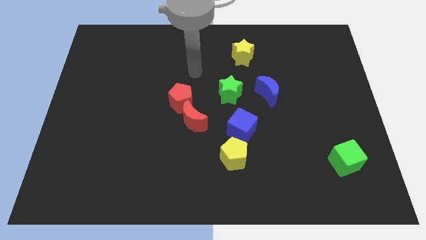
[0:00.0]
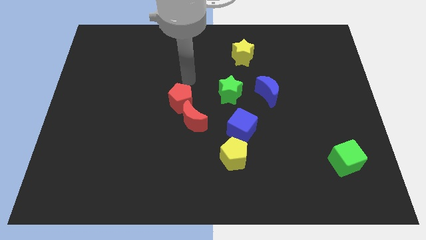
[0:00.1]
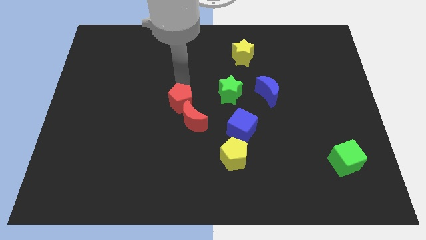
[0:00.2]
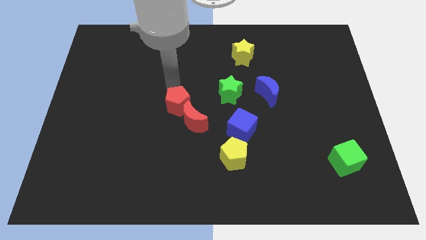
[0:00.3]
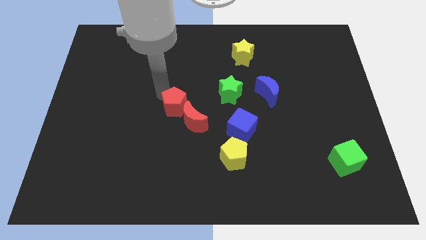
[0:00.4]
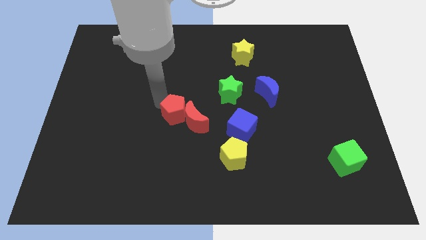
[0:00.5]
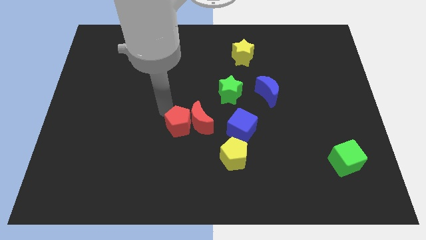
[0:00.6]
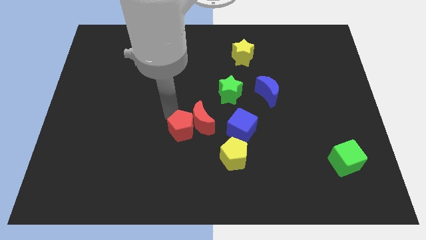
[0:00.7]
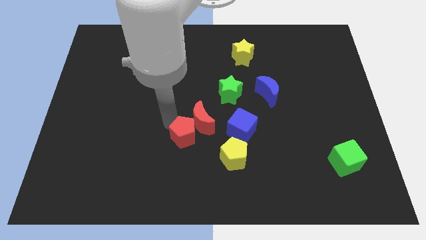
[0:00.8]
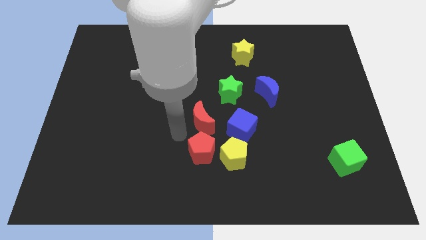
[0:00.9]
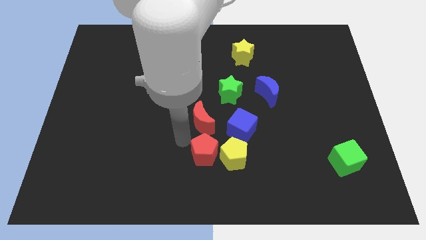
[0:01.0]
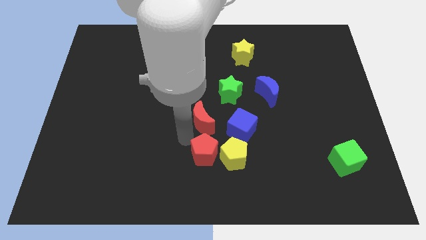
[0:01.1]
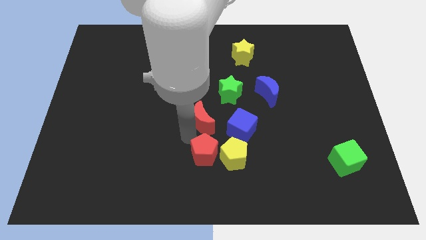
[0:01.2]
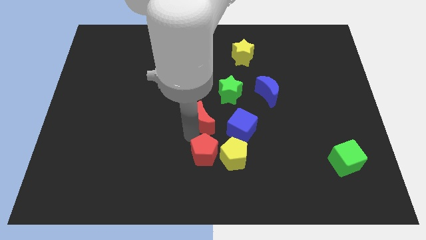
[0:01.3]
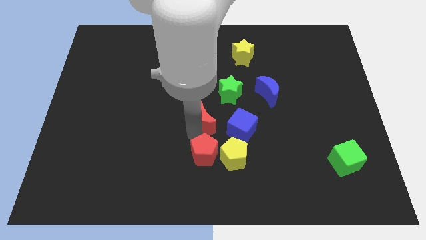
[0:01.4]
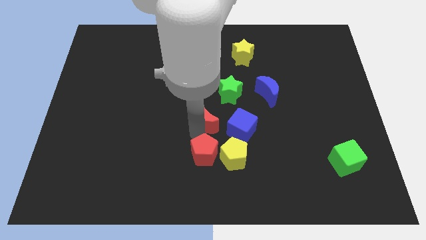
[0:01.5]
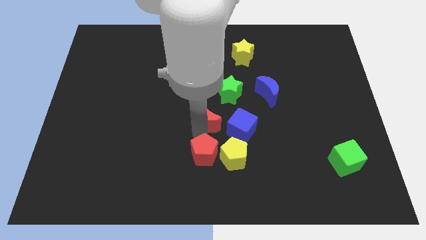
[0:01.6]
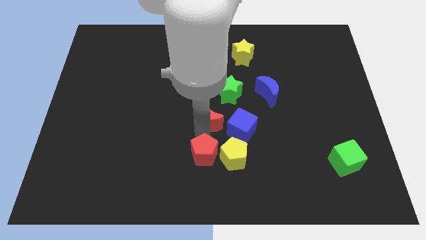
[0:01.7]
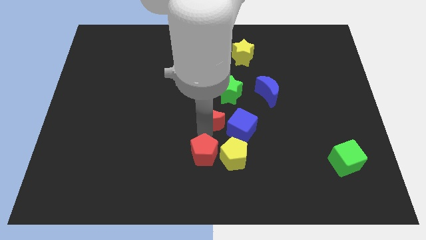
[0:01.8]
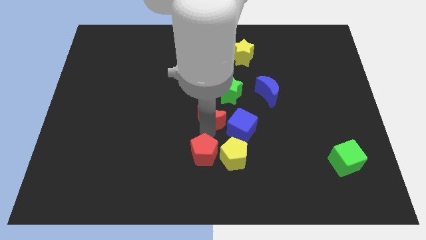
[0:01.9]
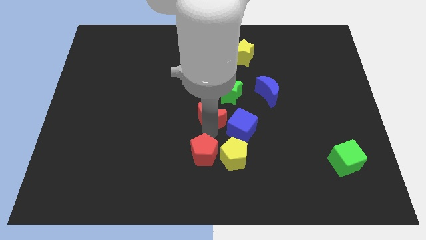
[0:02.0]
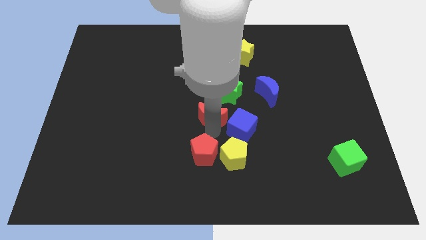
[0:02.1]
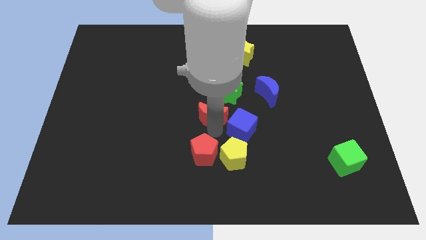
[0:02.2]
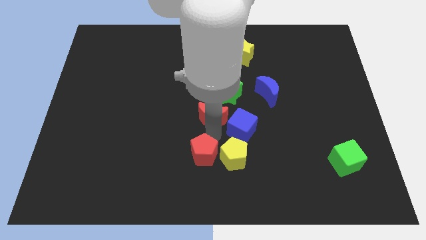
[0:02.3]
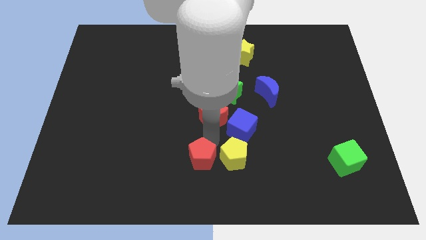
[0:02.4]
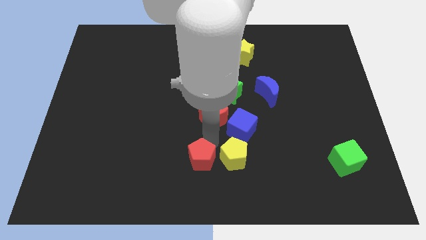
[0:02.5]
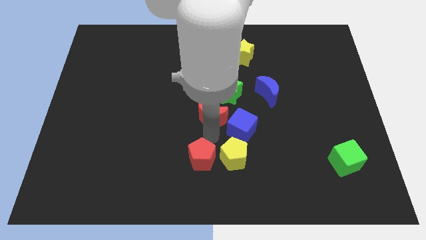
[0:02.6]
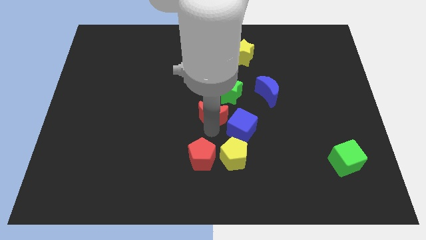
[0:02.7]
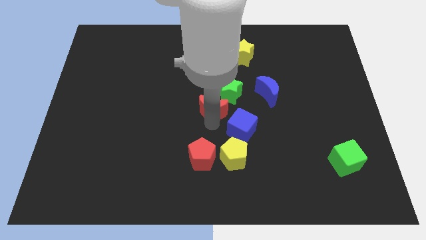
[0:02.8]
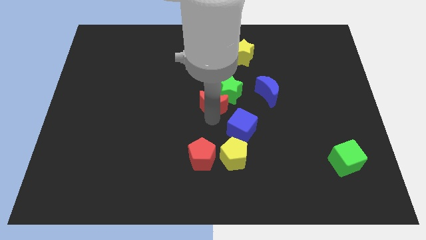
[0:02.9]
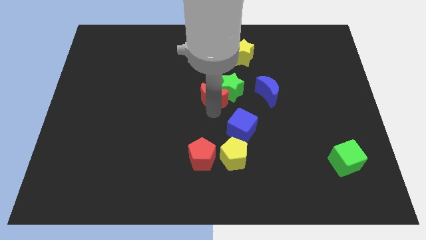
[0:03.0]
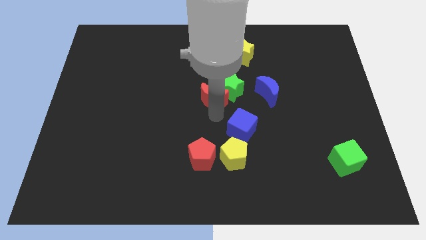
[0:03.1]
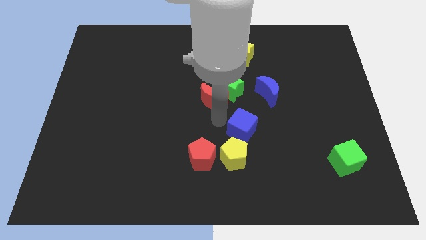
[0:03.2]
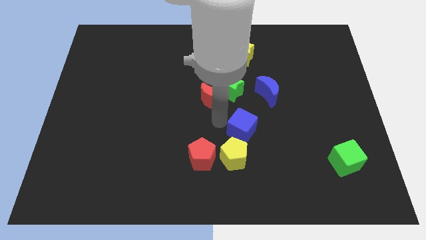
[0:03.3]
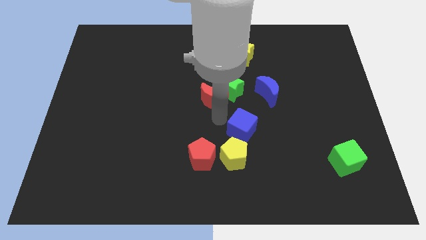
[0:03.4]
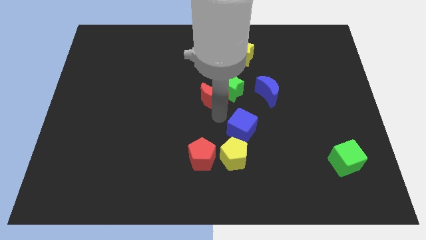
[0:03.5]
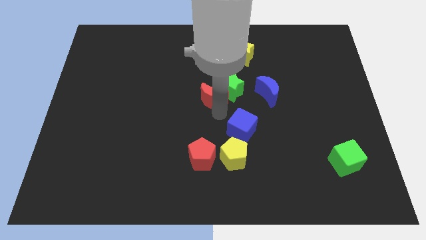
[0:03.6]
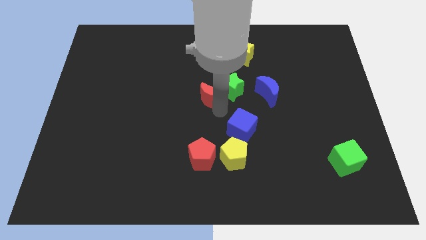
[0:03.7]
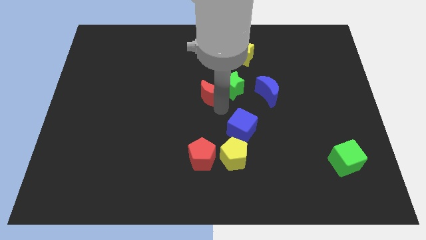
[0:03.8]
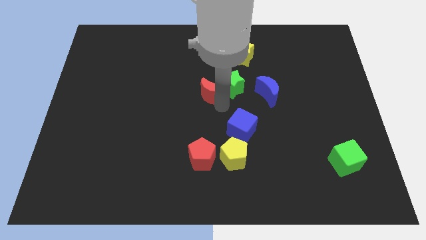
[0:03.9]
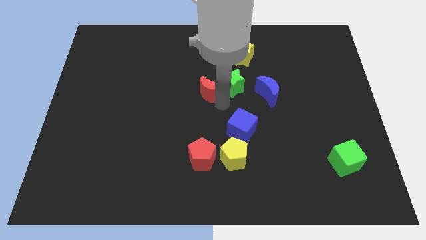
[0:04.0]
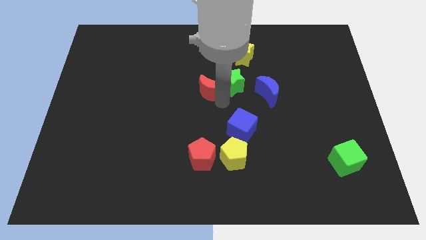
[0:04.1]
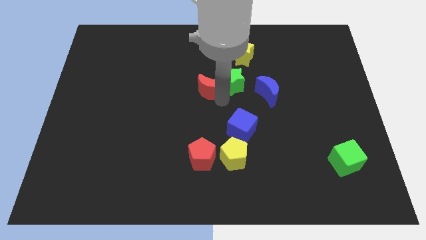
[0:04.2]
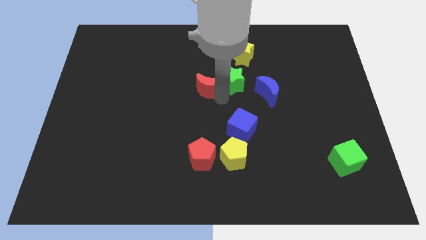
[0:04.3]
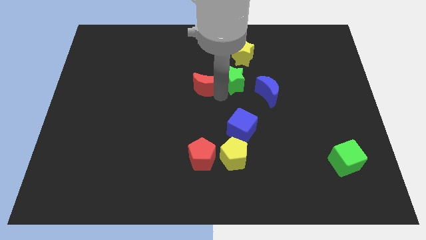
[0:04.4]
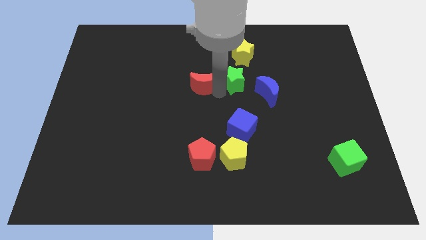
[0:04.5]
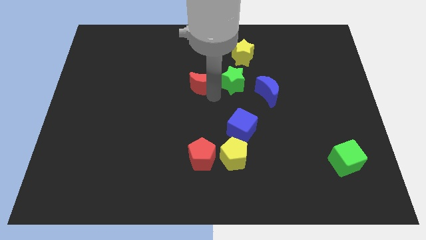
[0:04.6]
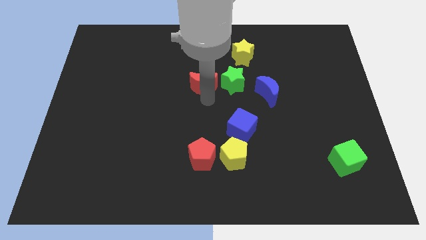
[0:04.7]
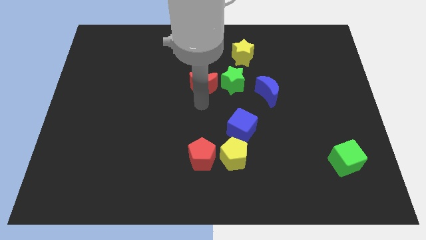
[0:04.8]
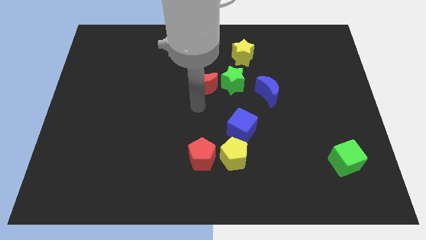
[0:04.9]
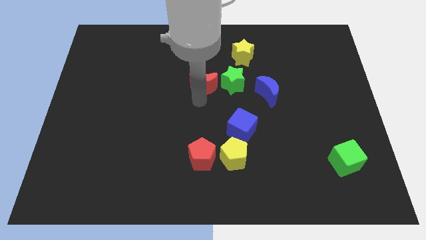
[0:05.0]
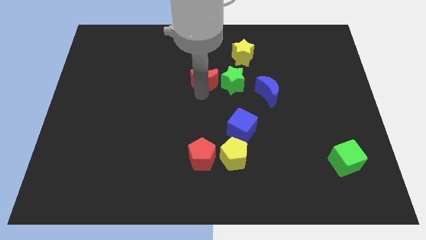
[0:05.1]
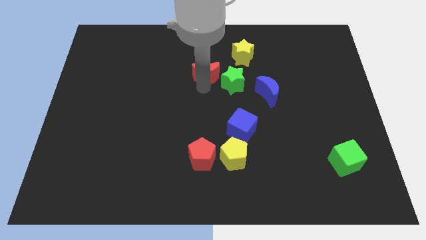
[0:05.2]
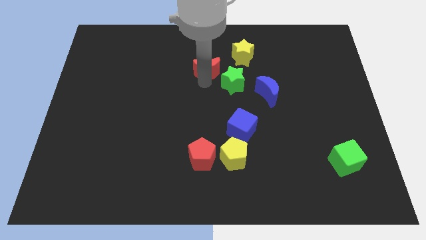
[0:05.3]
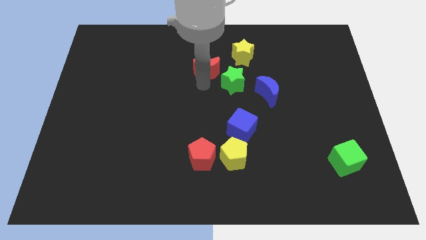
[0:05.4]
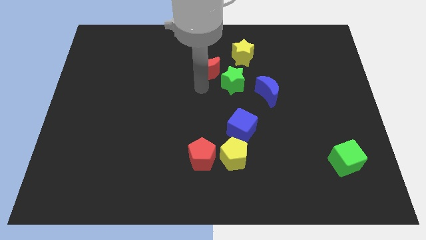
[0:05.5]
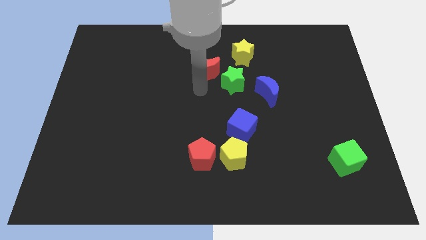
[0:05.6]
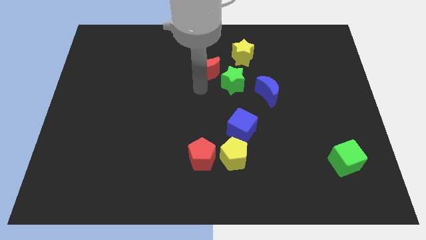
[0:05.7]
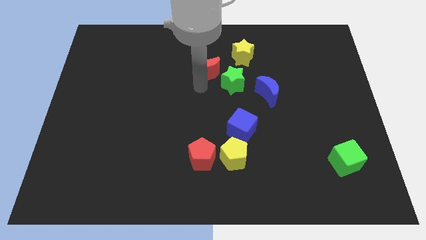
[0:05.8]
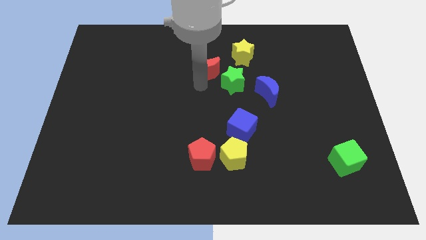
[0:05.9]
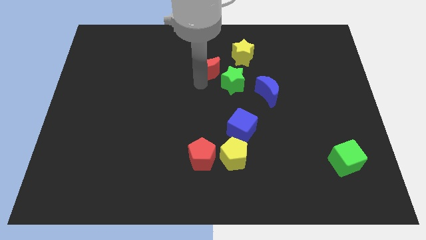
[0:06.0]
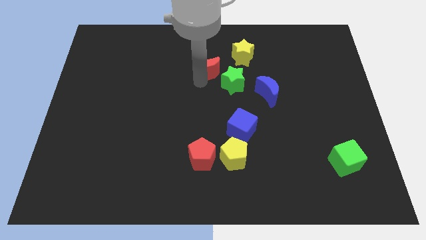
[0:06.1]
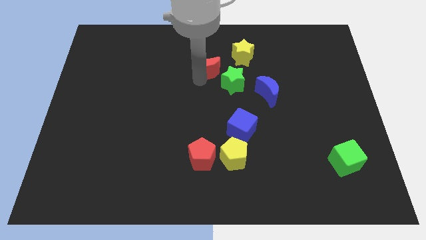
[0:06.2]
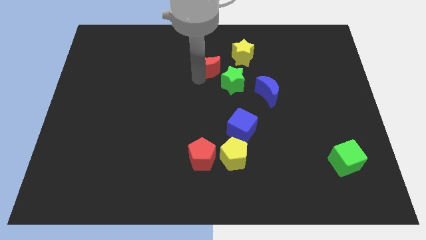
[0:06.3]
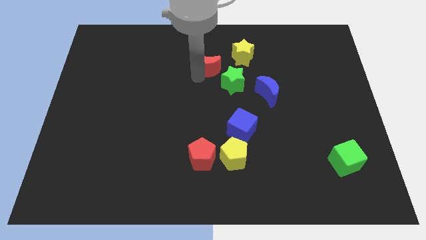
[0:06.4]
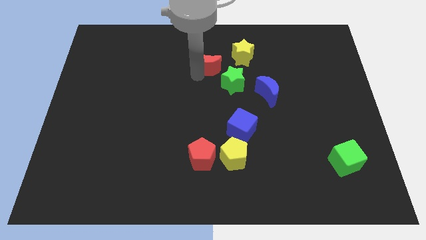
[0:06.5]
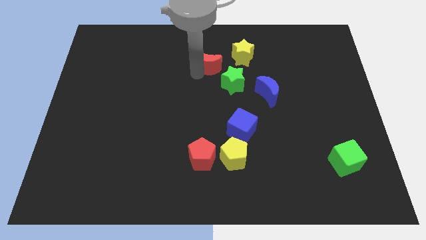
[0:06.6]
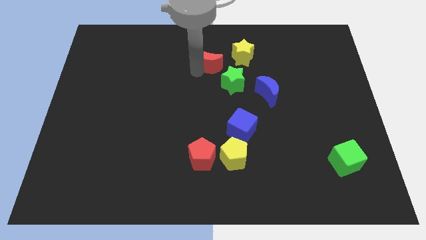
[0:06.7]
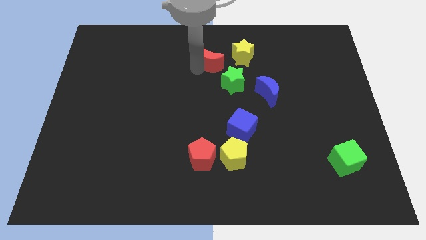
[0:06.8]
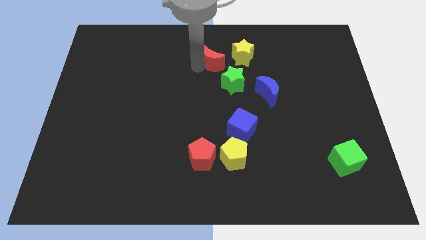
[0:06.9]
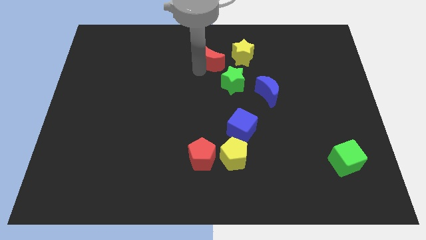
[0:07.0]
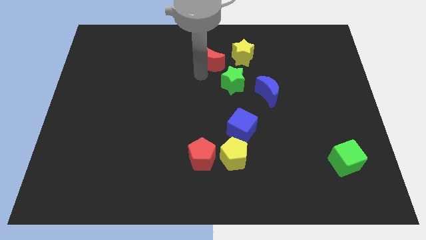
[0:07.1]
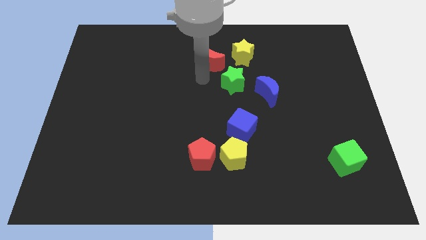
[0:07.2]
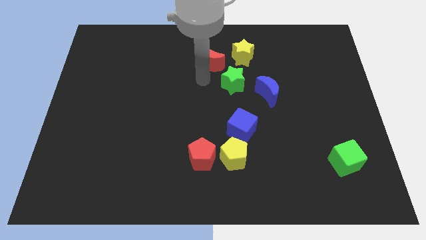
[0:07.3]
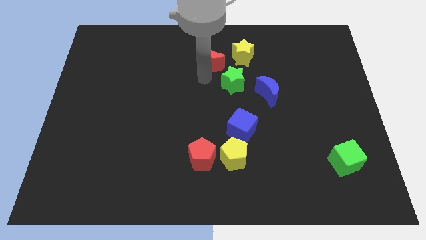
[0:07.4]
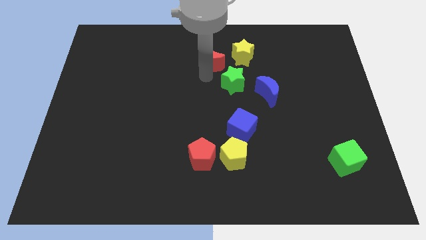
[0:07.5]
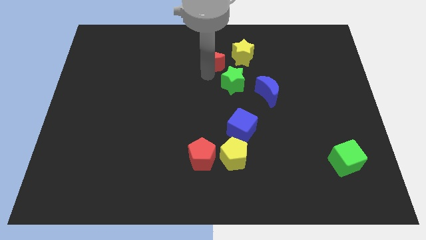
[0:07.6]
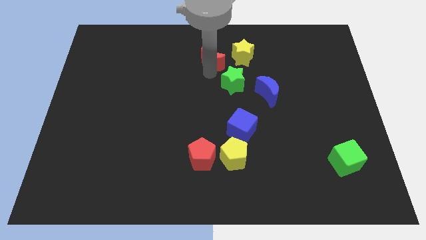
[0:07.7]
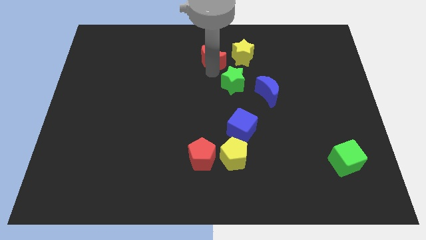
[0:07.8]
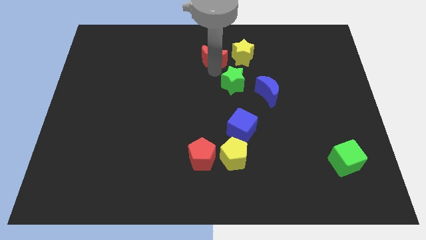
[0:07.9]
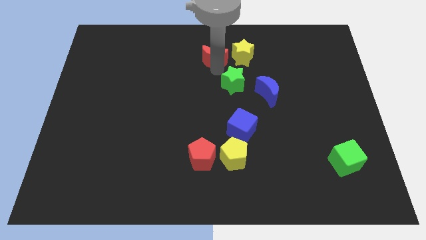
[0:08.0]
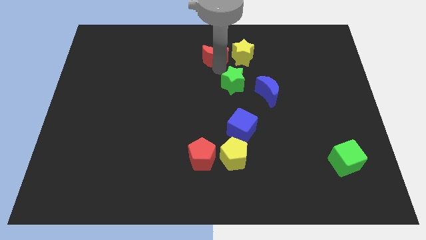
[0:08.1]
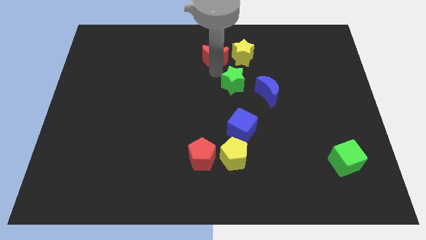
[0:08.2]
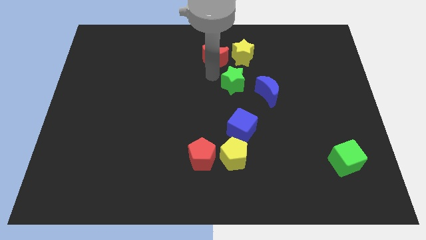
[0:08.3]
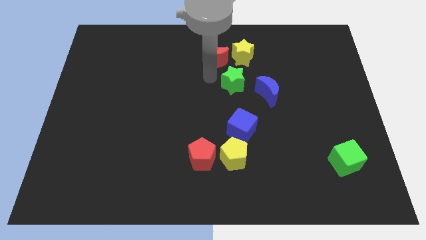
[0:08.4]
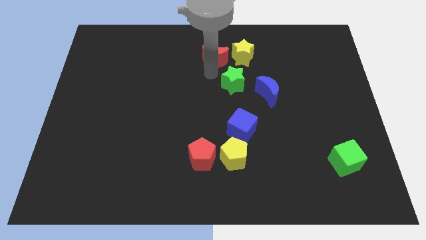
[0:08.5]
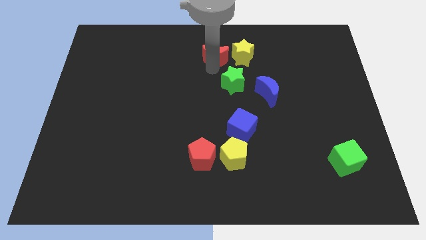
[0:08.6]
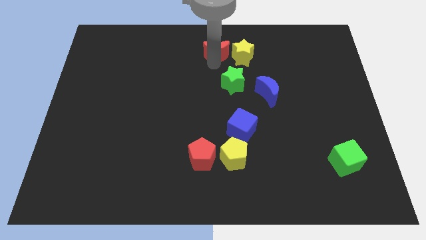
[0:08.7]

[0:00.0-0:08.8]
move the red moon to the towards your base
